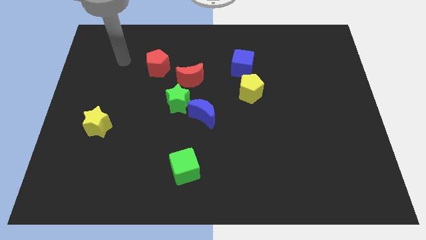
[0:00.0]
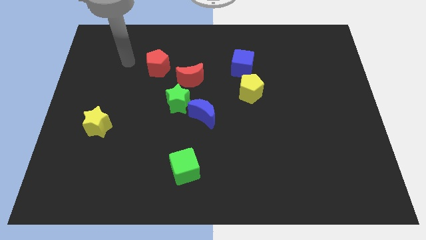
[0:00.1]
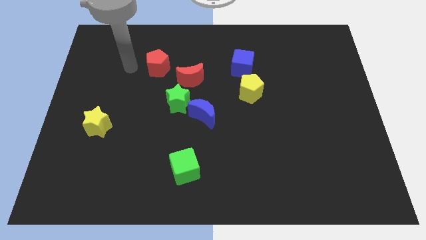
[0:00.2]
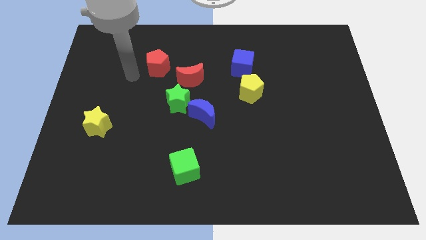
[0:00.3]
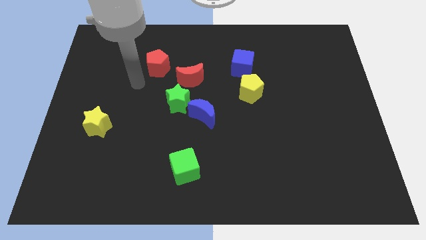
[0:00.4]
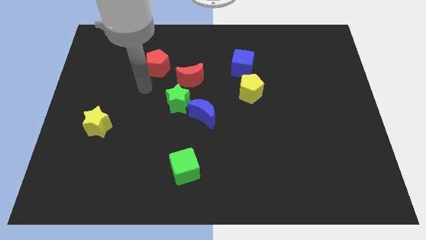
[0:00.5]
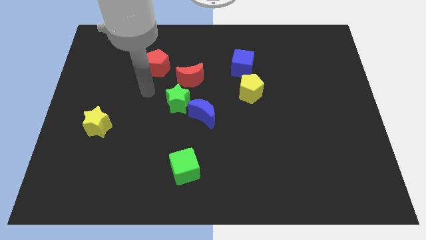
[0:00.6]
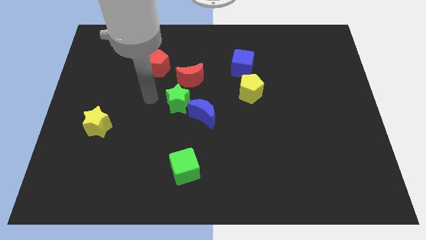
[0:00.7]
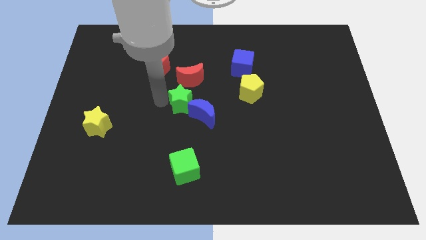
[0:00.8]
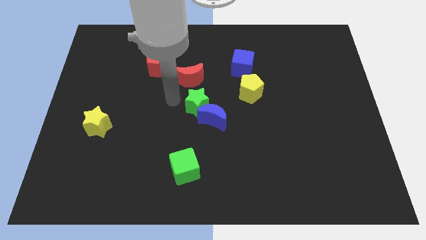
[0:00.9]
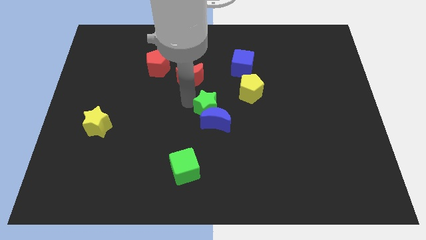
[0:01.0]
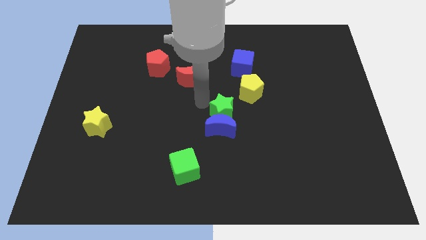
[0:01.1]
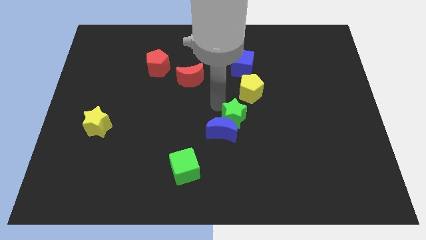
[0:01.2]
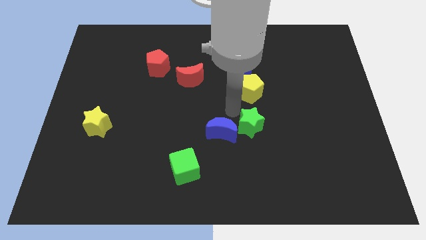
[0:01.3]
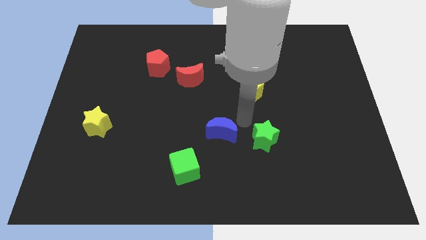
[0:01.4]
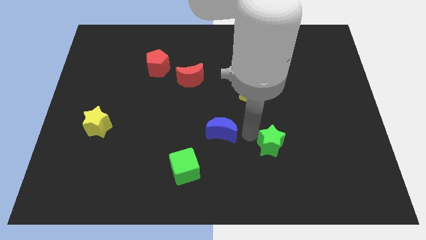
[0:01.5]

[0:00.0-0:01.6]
move the blue moon away from the green star

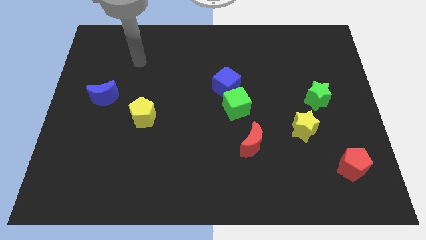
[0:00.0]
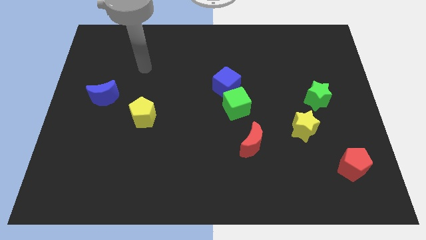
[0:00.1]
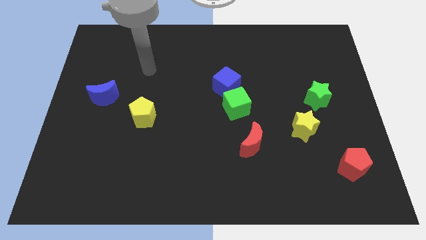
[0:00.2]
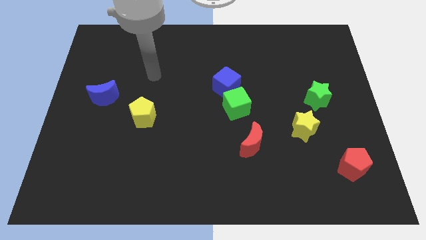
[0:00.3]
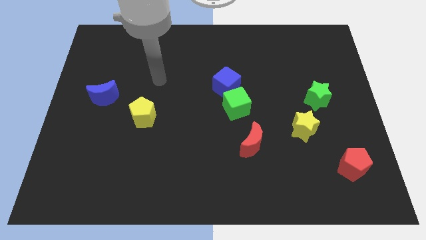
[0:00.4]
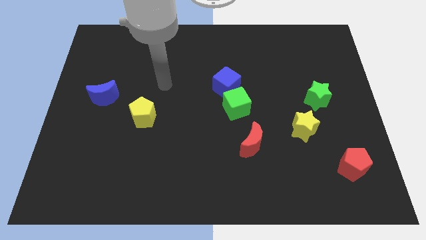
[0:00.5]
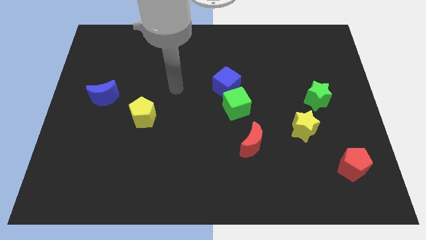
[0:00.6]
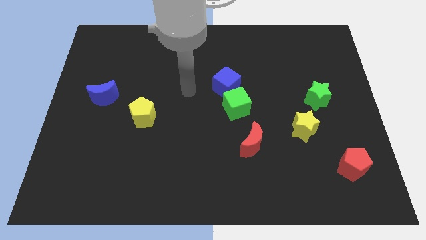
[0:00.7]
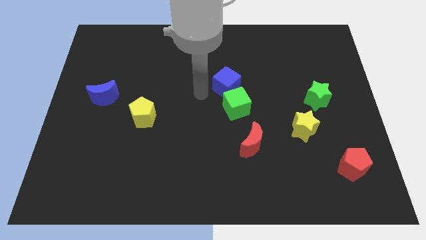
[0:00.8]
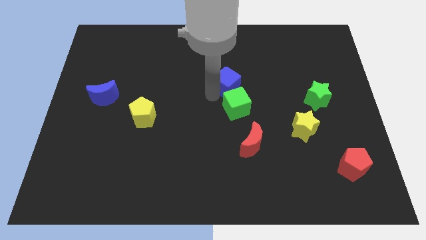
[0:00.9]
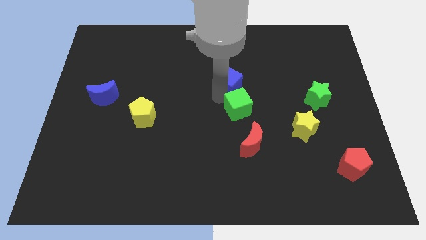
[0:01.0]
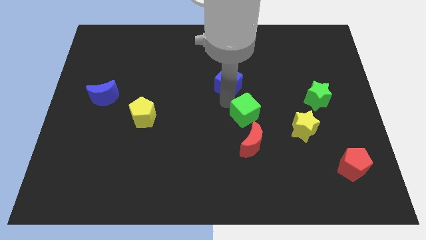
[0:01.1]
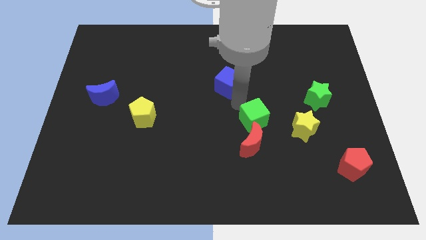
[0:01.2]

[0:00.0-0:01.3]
move the blue cube away from the green cube

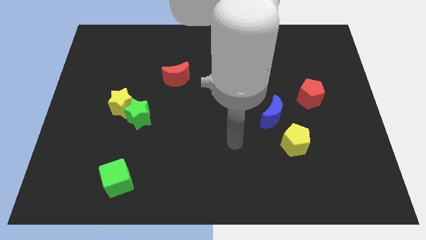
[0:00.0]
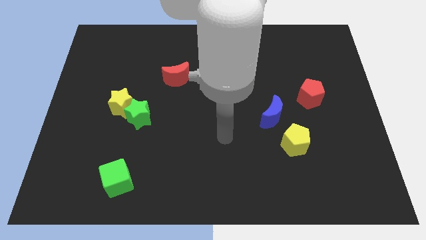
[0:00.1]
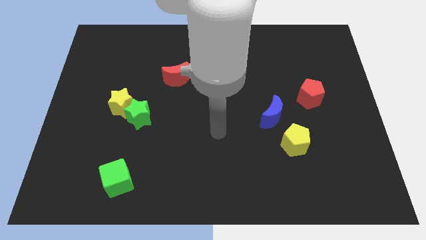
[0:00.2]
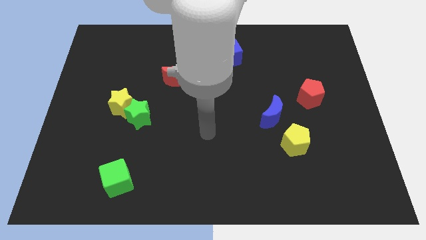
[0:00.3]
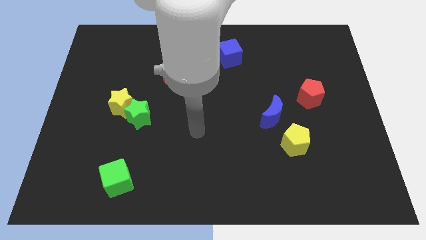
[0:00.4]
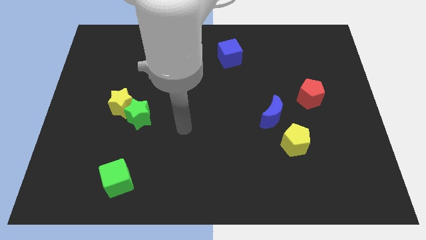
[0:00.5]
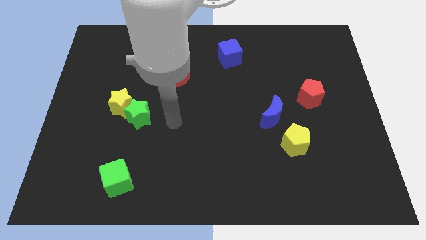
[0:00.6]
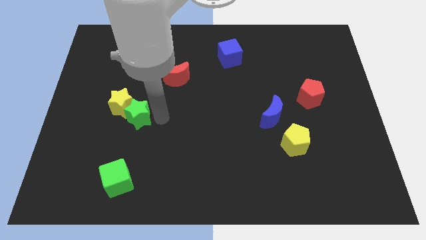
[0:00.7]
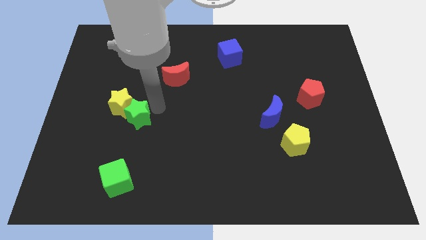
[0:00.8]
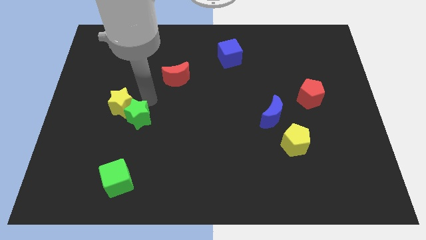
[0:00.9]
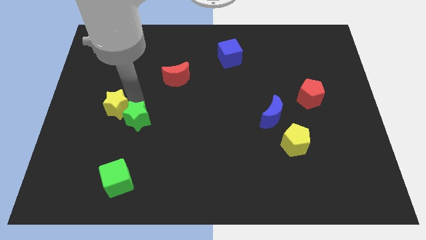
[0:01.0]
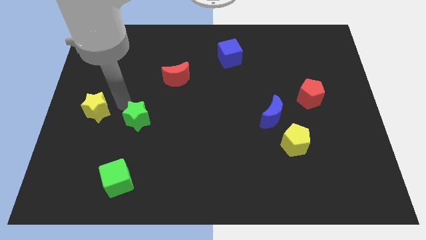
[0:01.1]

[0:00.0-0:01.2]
move the green star away from the yellow star

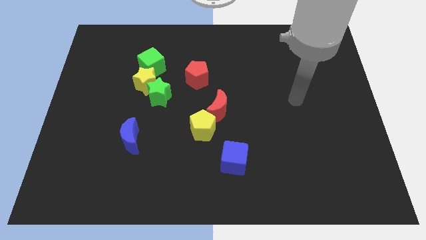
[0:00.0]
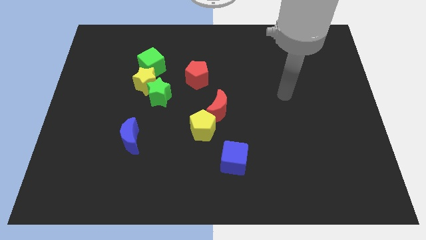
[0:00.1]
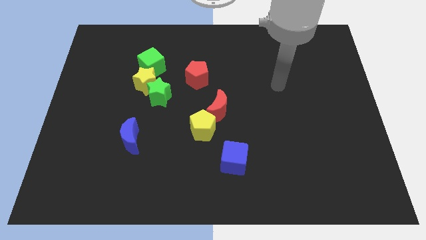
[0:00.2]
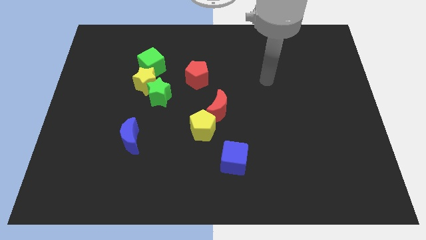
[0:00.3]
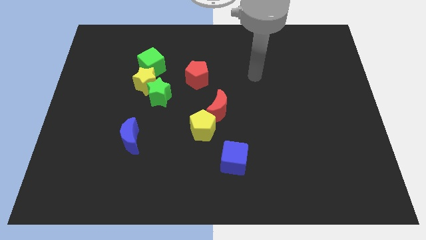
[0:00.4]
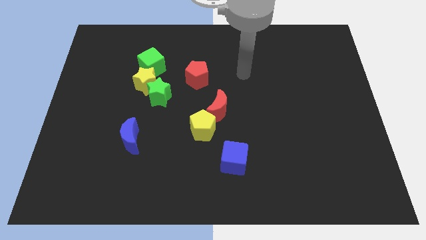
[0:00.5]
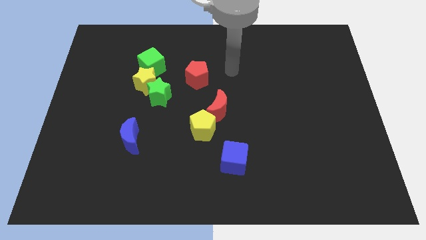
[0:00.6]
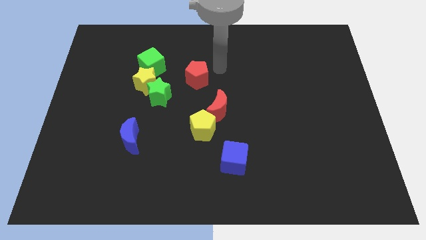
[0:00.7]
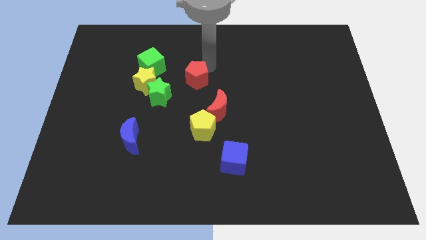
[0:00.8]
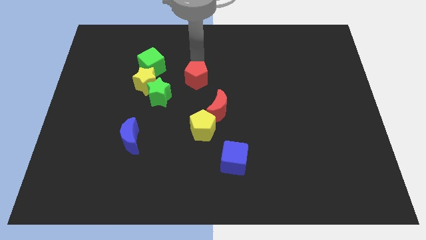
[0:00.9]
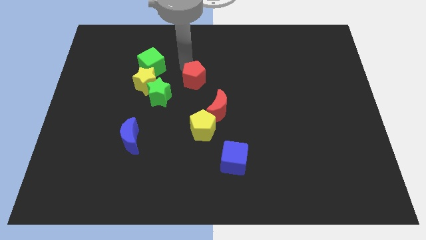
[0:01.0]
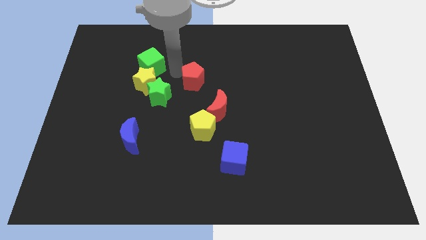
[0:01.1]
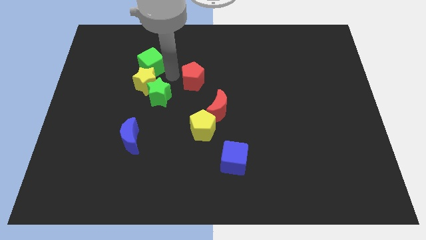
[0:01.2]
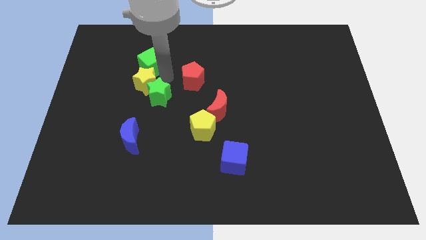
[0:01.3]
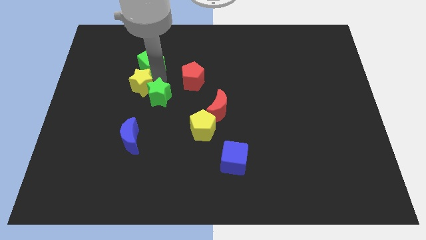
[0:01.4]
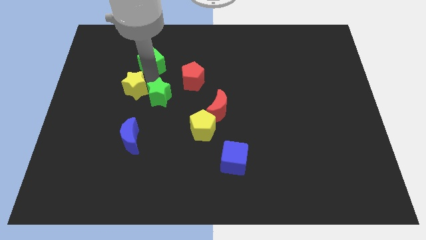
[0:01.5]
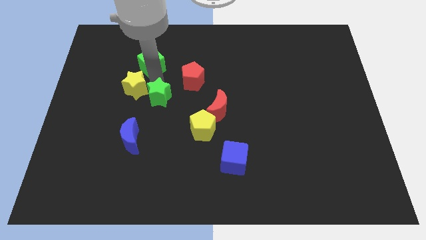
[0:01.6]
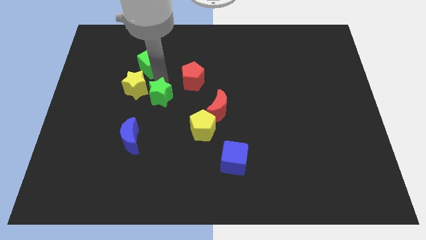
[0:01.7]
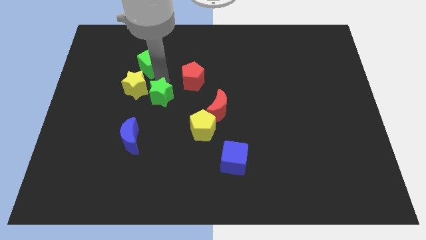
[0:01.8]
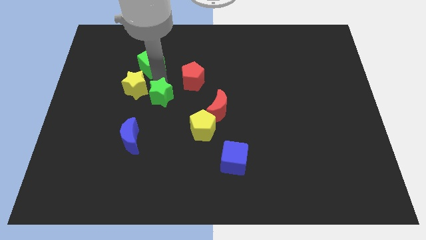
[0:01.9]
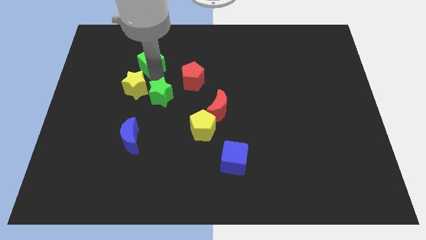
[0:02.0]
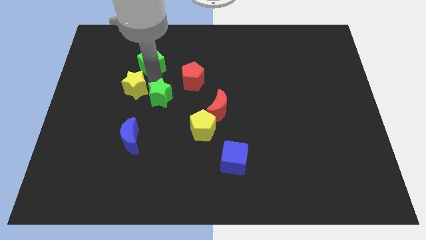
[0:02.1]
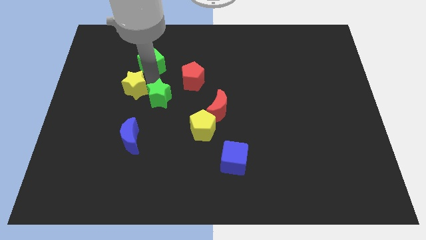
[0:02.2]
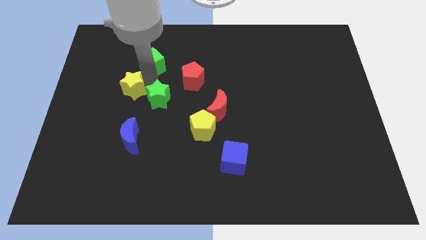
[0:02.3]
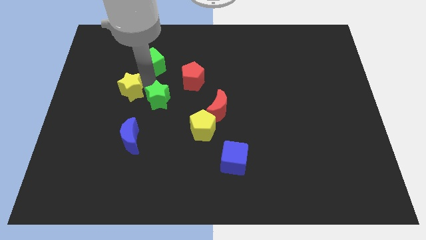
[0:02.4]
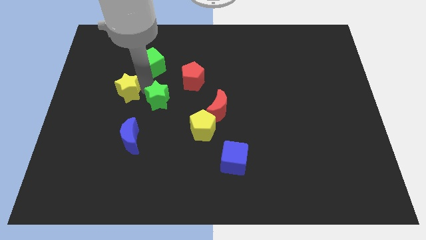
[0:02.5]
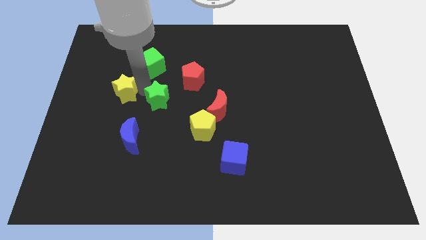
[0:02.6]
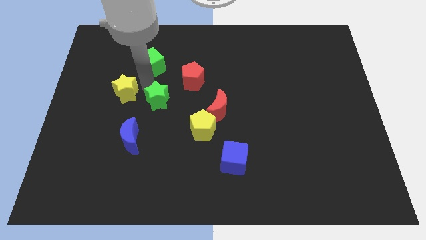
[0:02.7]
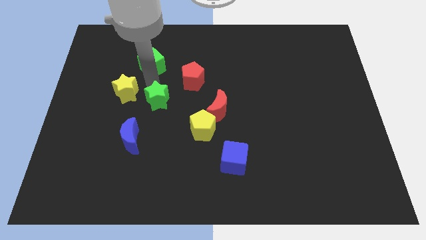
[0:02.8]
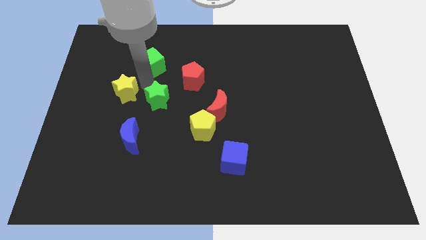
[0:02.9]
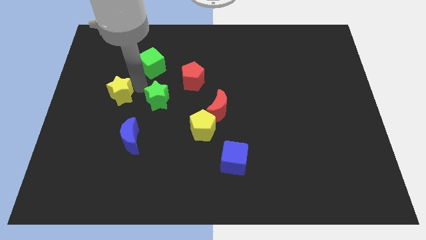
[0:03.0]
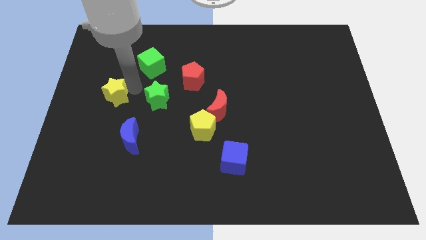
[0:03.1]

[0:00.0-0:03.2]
separate the yellow star from the green star and green cube

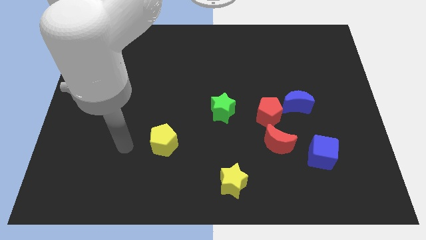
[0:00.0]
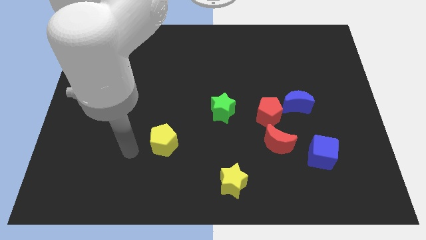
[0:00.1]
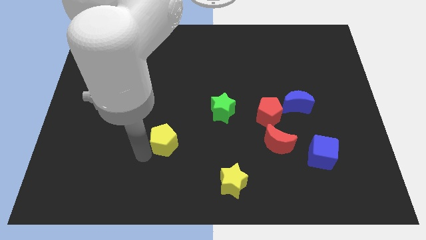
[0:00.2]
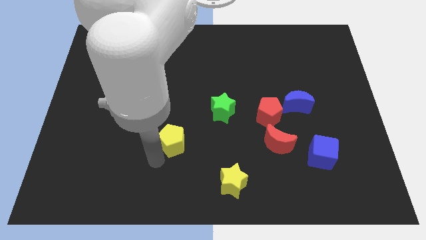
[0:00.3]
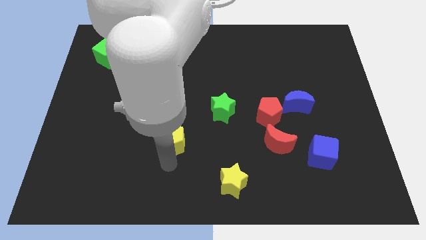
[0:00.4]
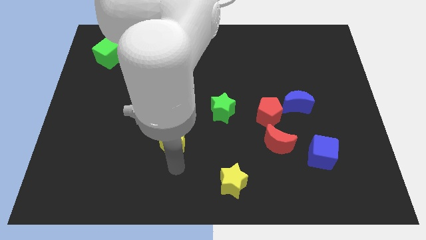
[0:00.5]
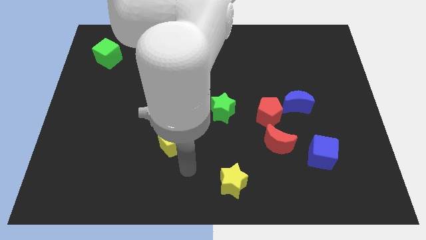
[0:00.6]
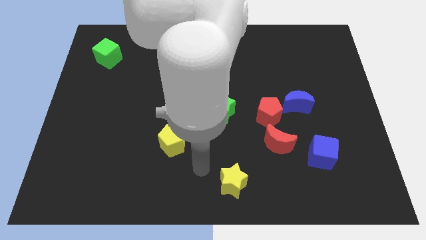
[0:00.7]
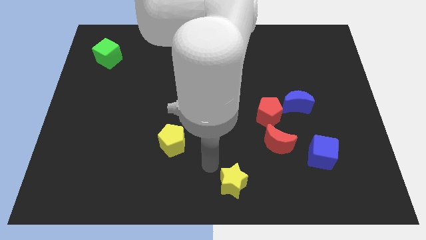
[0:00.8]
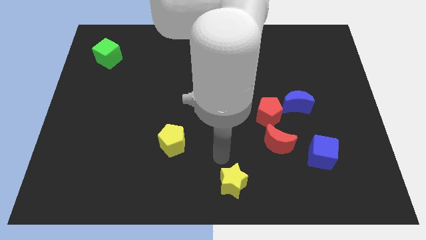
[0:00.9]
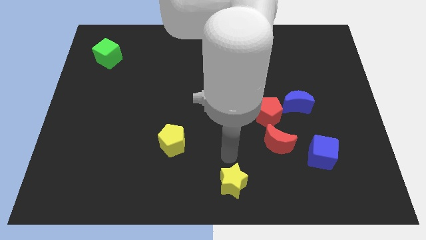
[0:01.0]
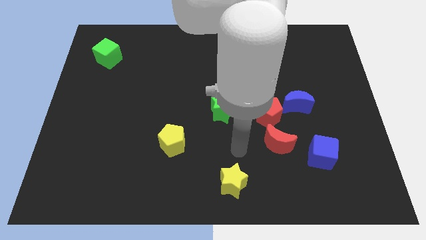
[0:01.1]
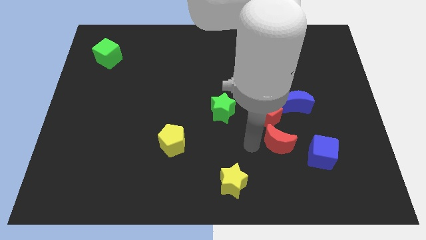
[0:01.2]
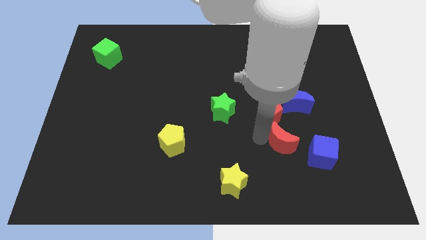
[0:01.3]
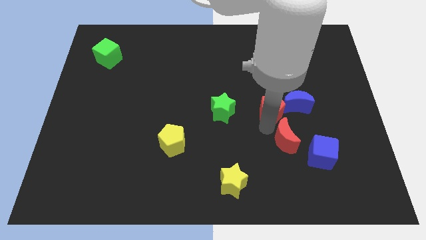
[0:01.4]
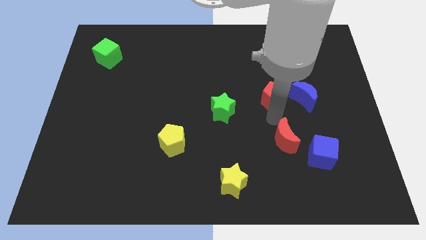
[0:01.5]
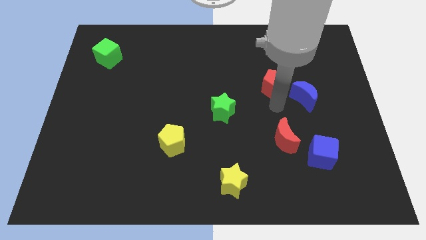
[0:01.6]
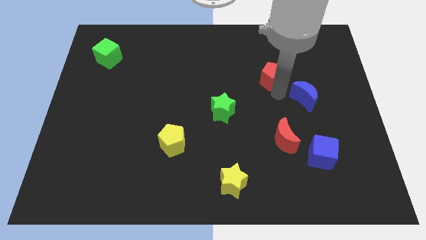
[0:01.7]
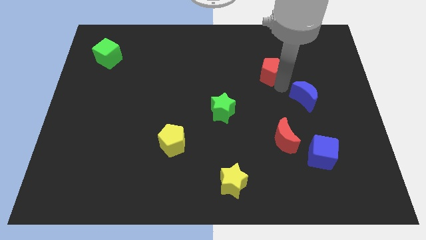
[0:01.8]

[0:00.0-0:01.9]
pull the blue moon apart from the red pentagon
